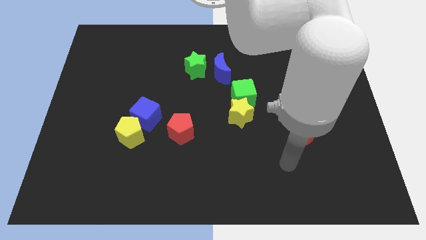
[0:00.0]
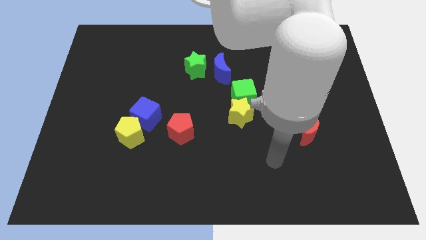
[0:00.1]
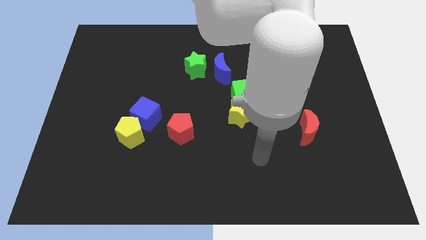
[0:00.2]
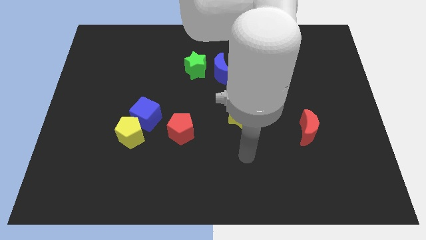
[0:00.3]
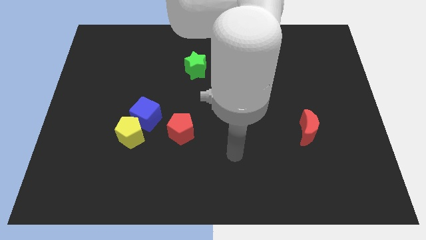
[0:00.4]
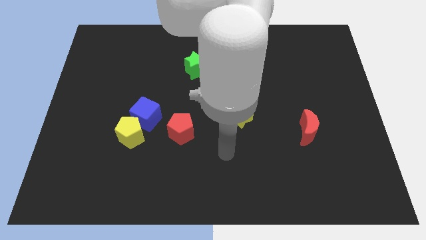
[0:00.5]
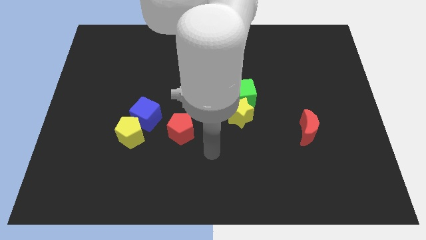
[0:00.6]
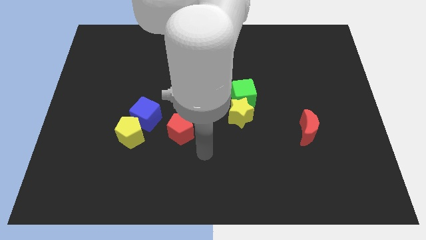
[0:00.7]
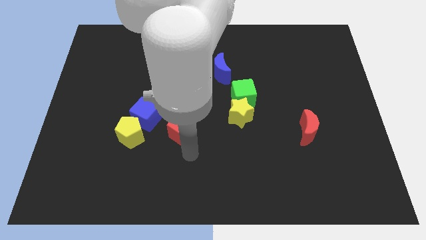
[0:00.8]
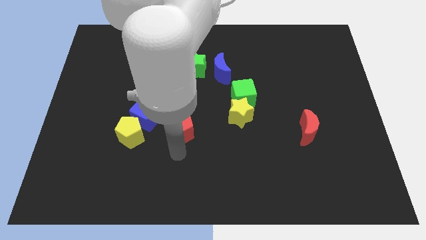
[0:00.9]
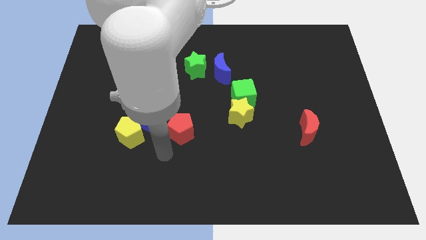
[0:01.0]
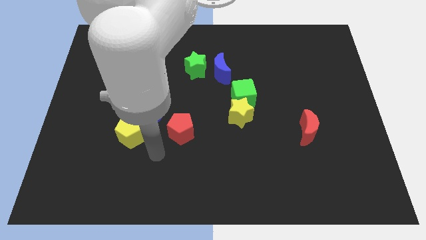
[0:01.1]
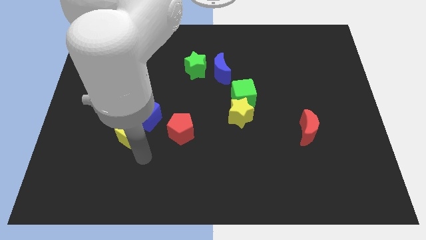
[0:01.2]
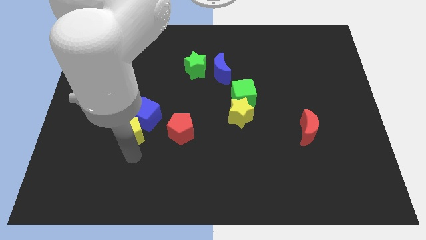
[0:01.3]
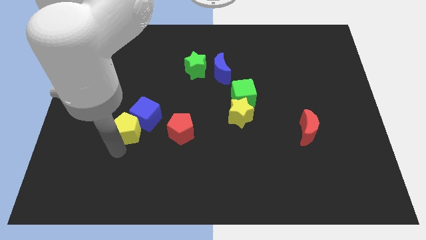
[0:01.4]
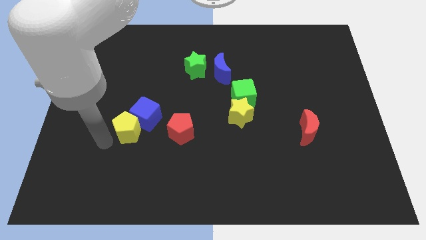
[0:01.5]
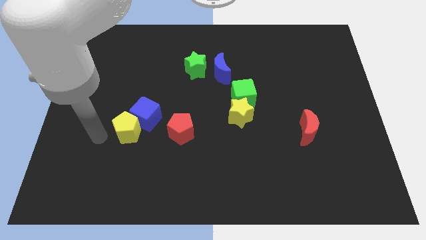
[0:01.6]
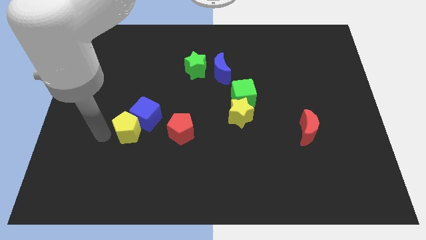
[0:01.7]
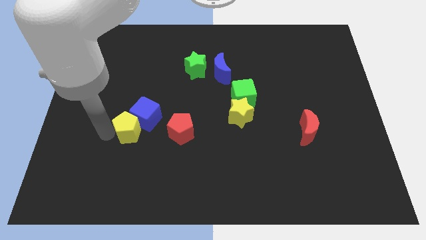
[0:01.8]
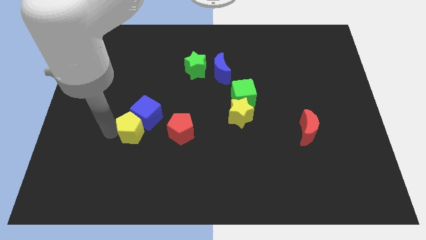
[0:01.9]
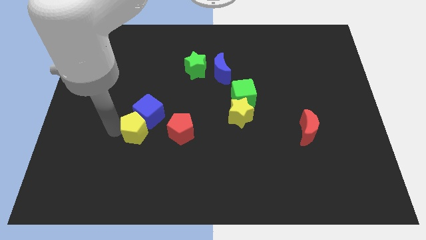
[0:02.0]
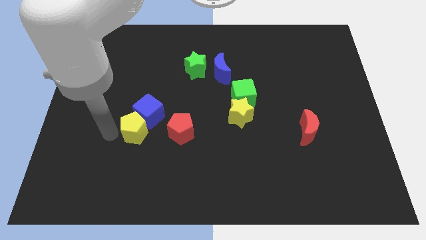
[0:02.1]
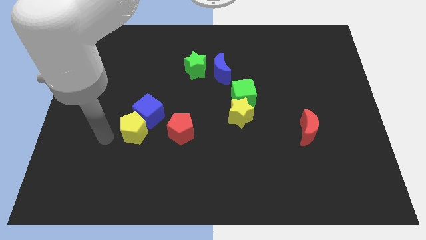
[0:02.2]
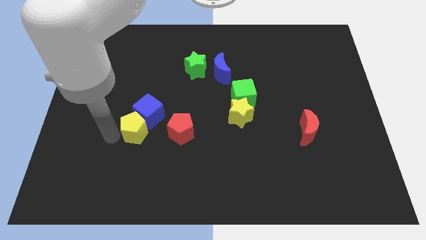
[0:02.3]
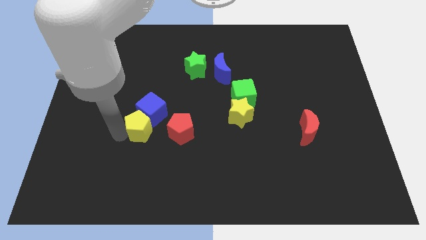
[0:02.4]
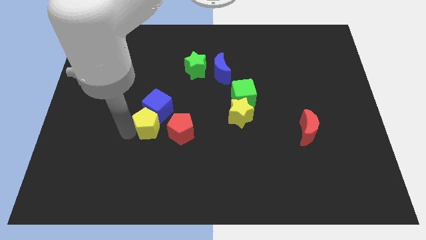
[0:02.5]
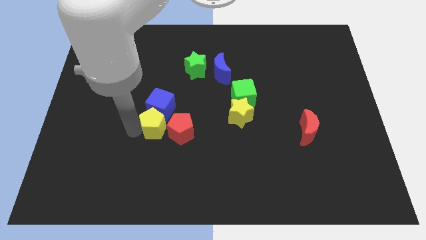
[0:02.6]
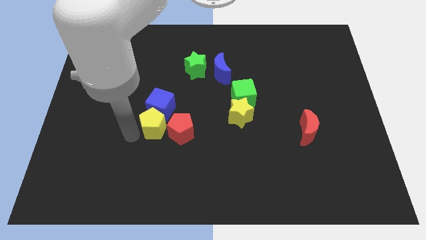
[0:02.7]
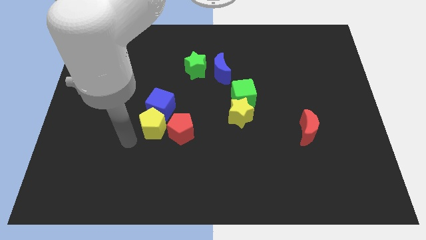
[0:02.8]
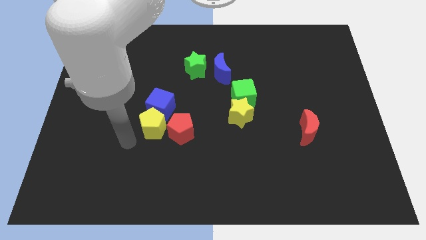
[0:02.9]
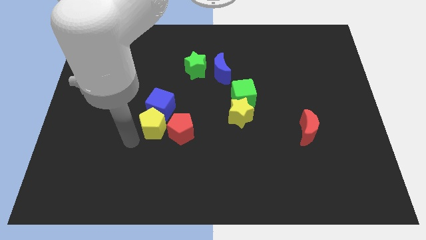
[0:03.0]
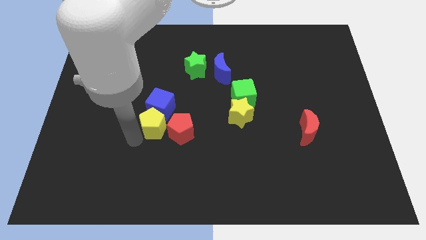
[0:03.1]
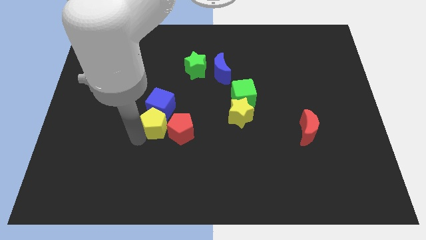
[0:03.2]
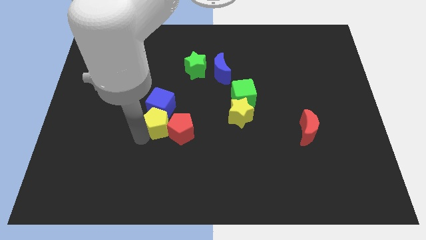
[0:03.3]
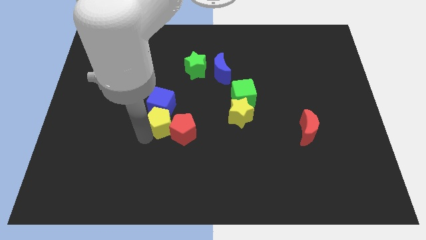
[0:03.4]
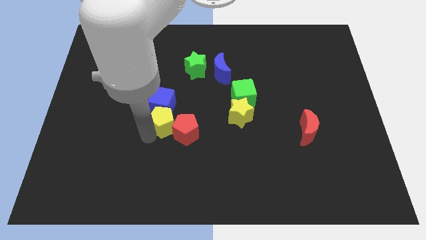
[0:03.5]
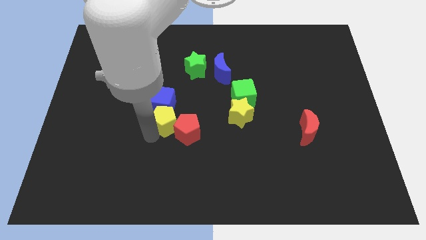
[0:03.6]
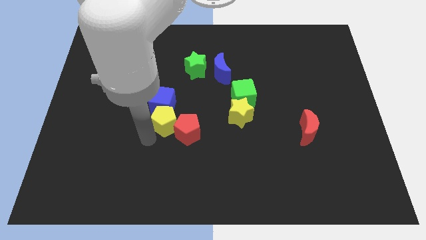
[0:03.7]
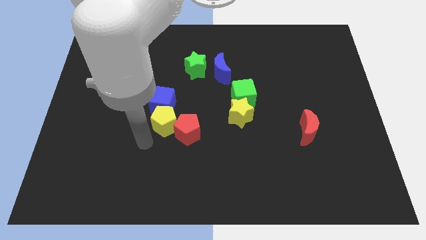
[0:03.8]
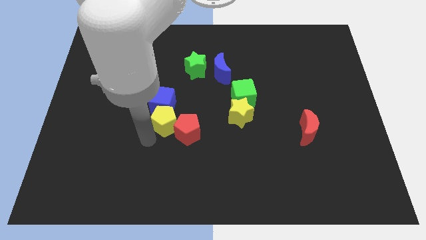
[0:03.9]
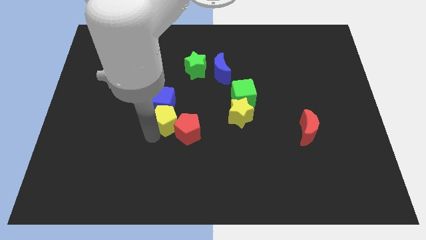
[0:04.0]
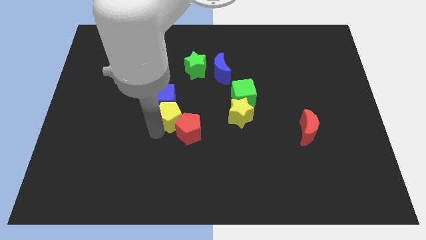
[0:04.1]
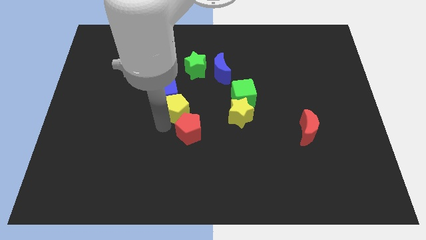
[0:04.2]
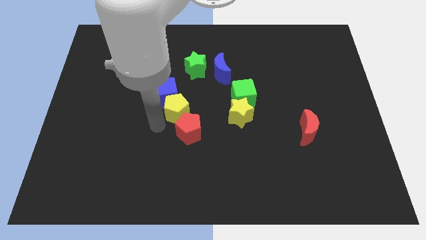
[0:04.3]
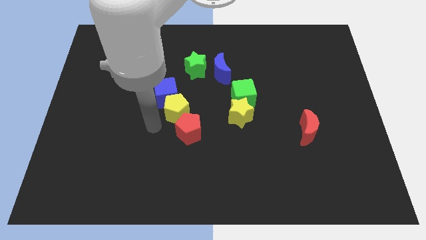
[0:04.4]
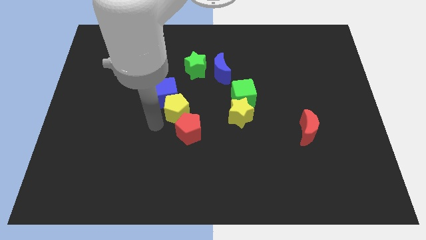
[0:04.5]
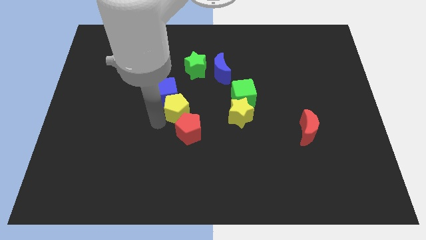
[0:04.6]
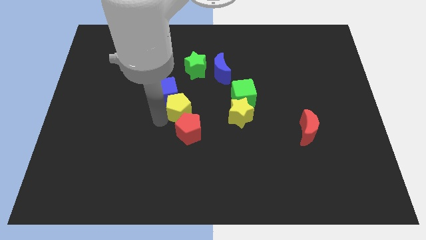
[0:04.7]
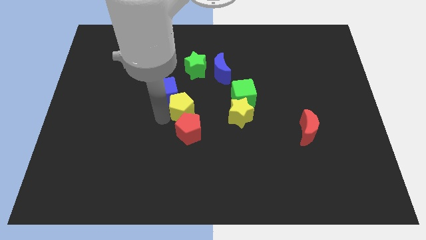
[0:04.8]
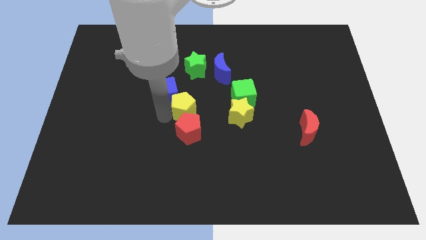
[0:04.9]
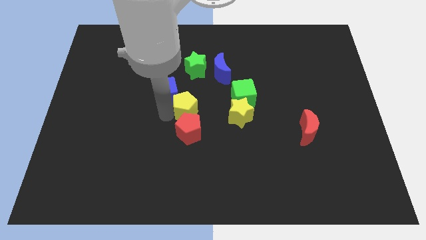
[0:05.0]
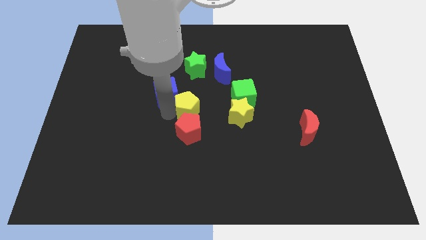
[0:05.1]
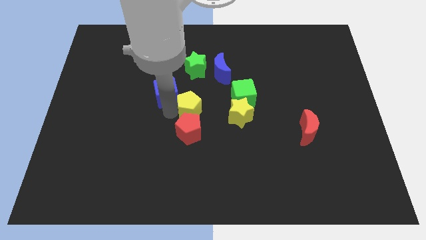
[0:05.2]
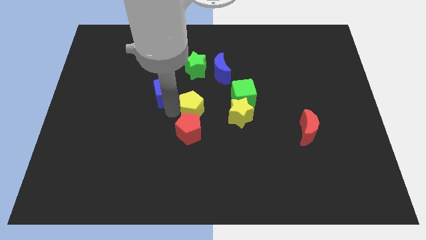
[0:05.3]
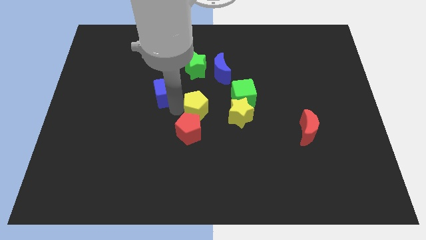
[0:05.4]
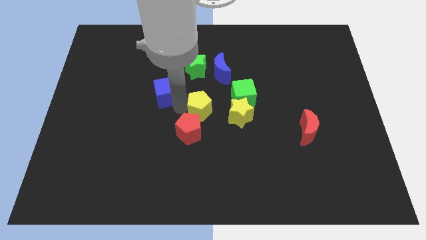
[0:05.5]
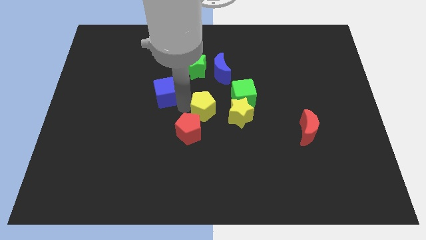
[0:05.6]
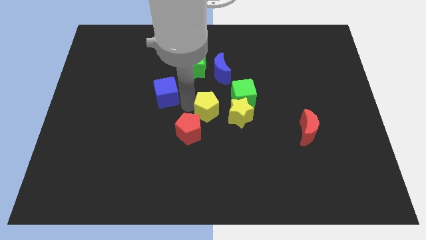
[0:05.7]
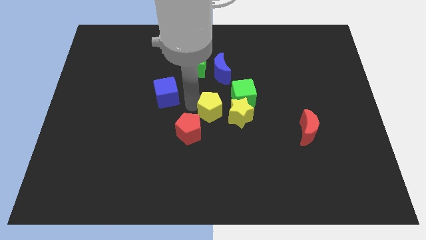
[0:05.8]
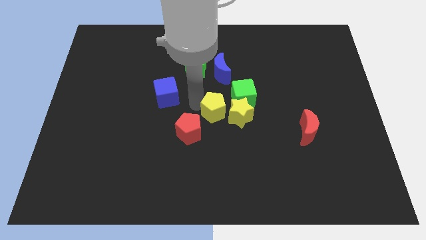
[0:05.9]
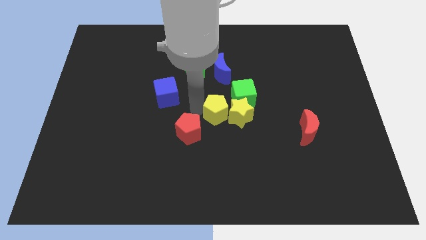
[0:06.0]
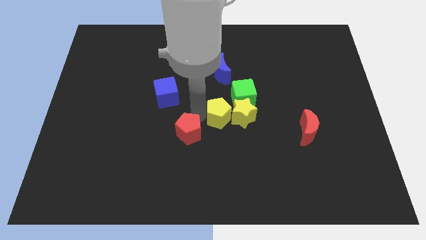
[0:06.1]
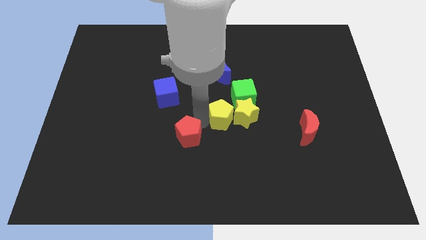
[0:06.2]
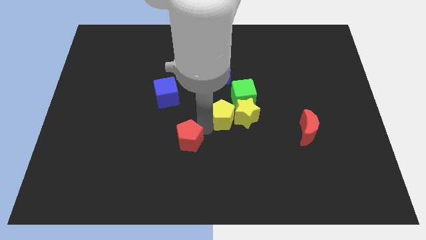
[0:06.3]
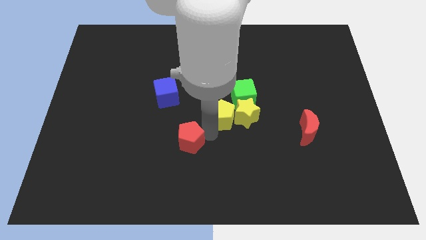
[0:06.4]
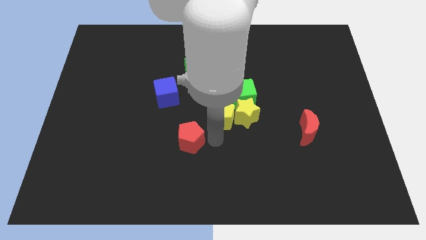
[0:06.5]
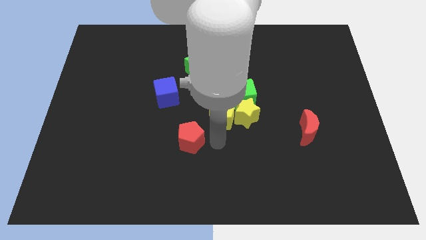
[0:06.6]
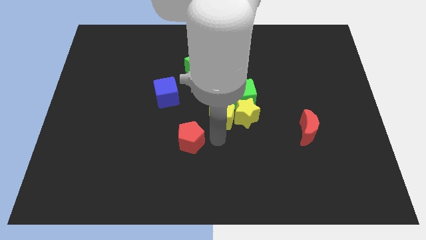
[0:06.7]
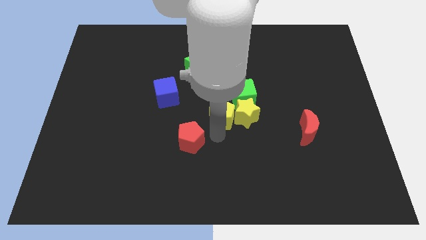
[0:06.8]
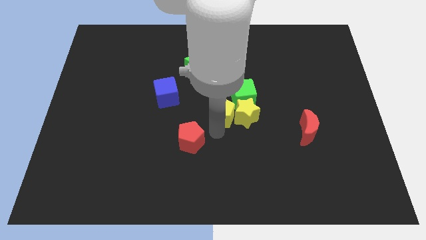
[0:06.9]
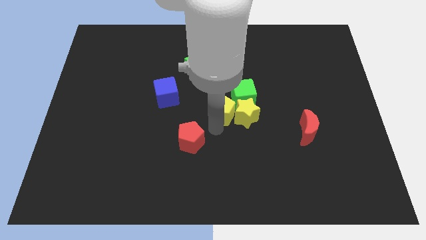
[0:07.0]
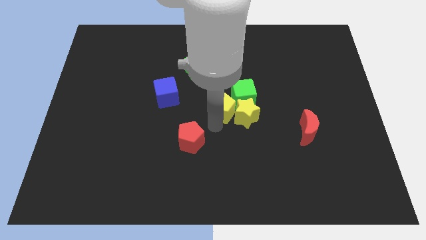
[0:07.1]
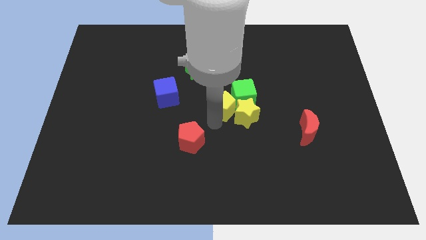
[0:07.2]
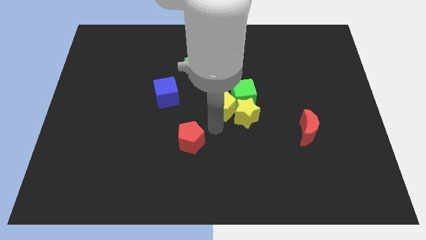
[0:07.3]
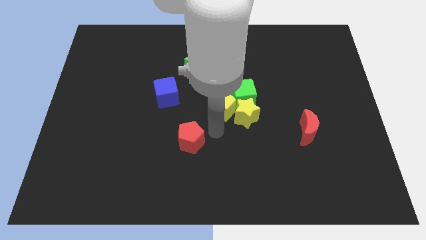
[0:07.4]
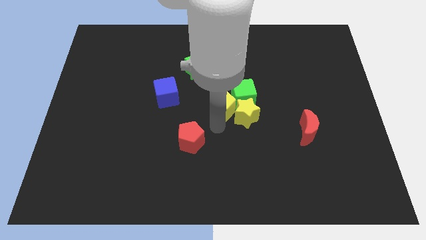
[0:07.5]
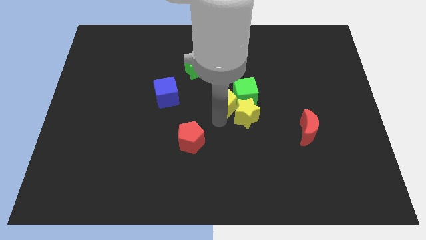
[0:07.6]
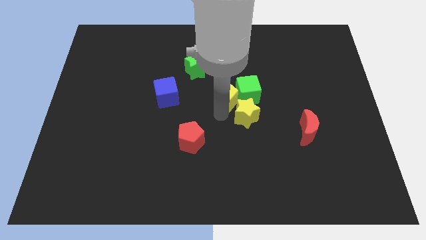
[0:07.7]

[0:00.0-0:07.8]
slide the yellow pentagon to the top of the yellow star
